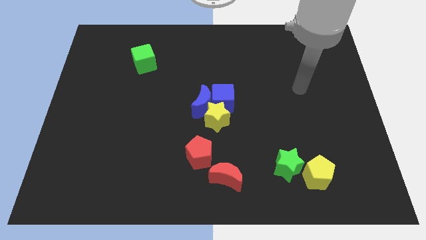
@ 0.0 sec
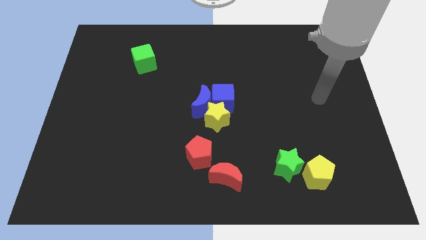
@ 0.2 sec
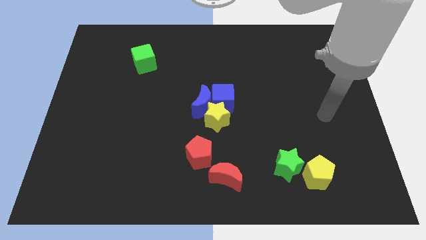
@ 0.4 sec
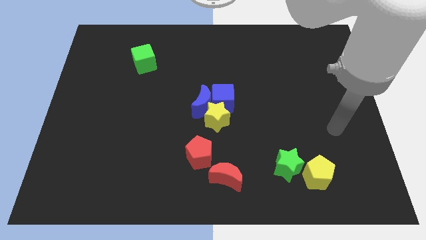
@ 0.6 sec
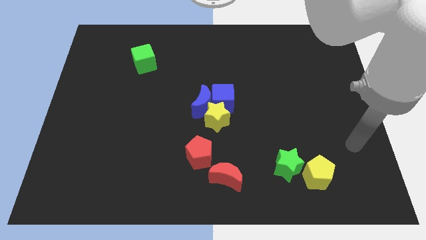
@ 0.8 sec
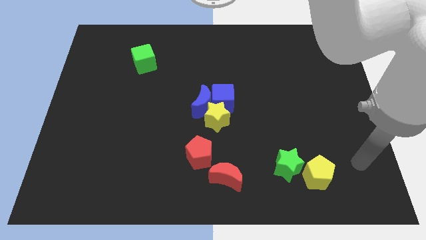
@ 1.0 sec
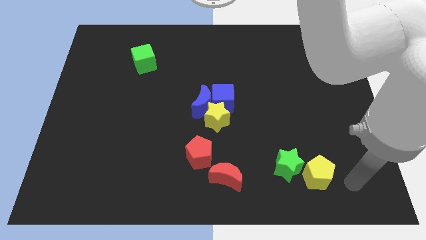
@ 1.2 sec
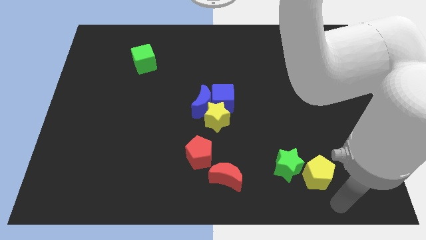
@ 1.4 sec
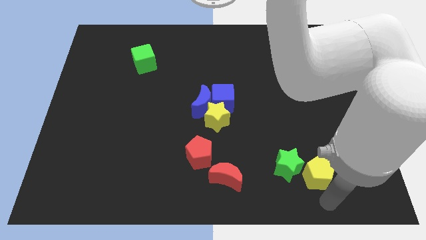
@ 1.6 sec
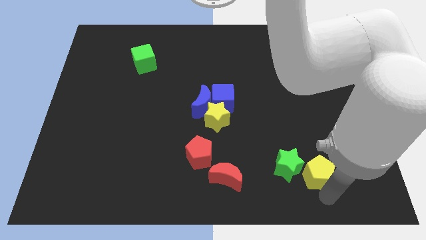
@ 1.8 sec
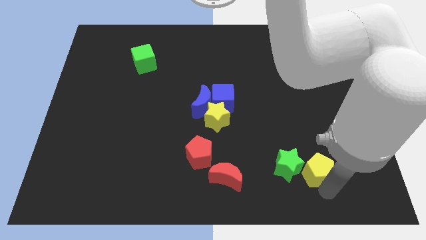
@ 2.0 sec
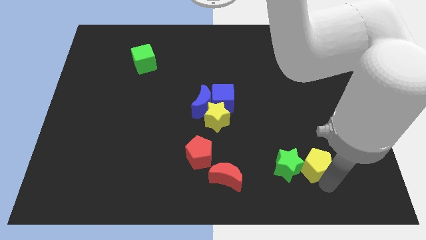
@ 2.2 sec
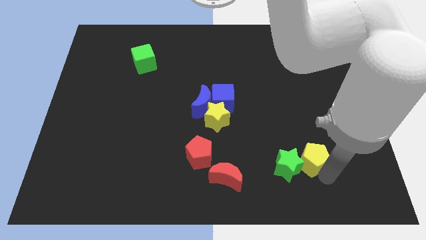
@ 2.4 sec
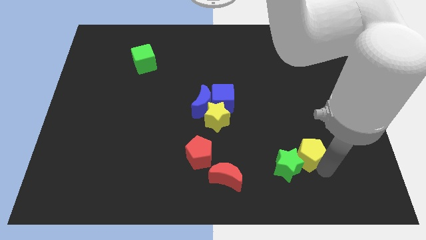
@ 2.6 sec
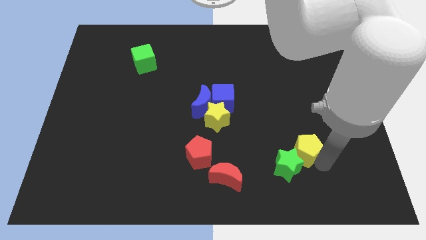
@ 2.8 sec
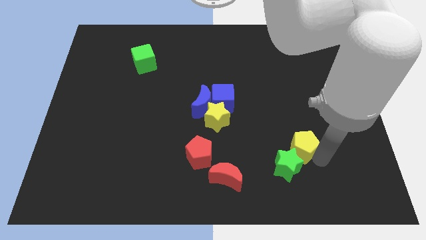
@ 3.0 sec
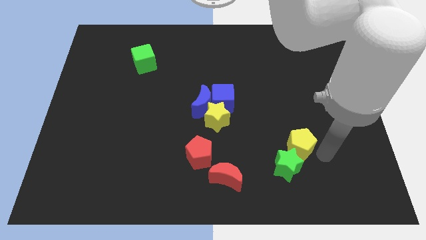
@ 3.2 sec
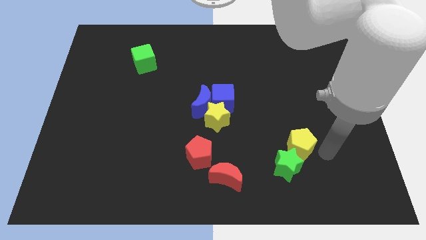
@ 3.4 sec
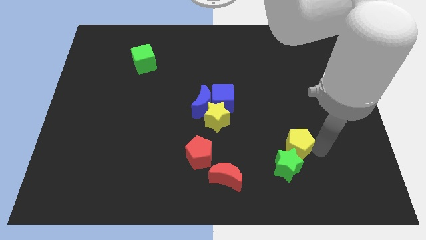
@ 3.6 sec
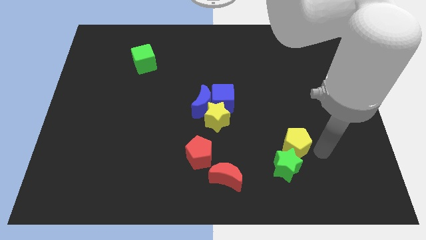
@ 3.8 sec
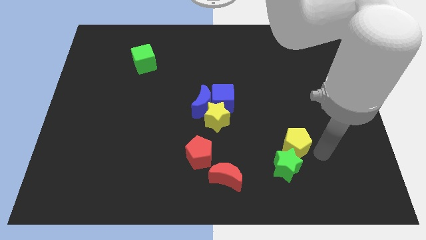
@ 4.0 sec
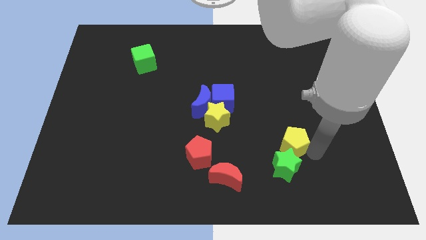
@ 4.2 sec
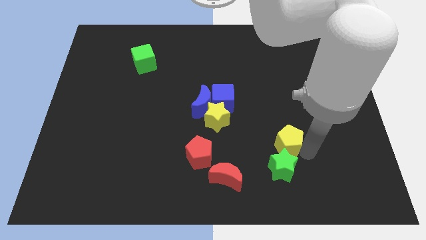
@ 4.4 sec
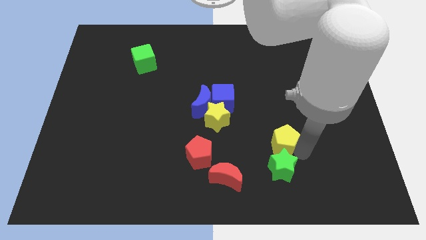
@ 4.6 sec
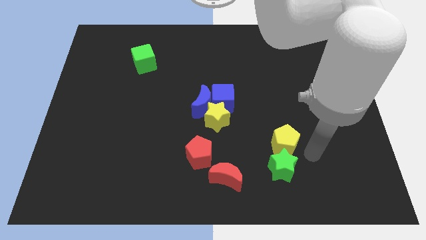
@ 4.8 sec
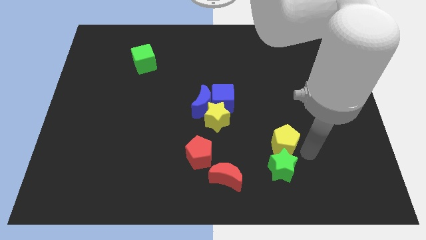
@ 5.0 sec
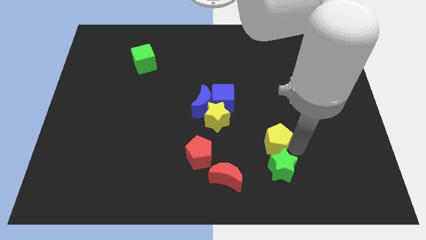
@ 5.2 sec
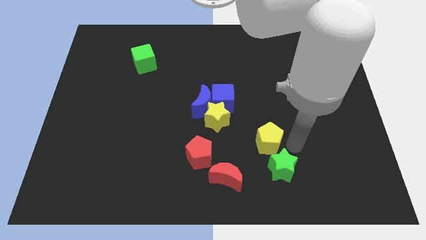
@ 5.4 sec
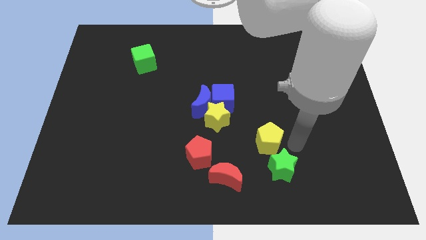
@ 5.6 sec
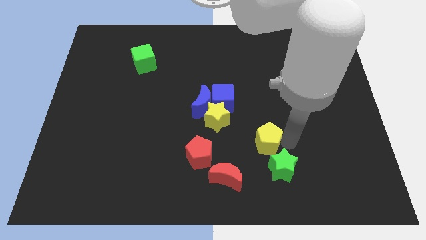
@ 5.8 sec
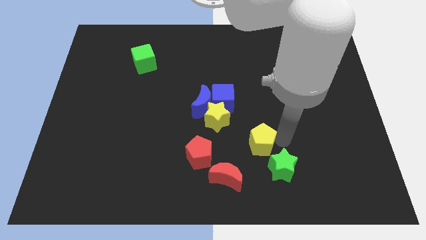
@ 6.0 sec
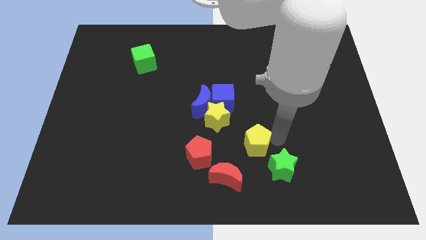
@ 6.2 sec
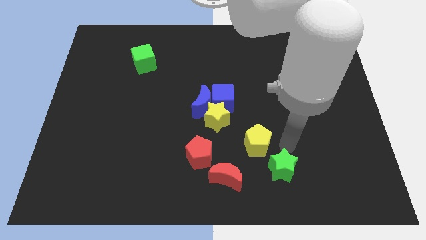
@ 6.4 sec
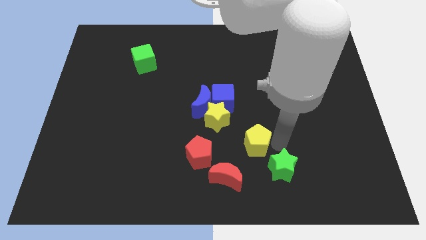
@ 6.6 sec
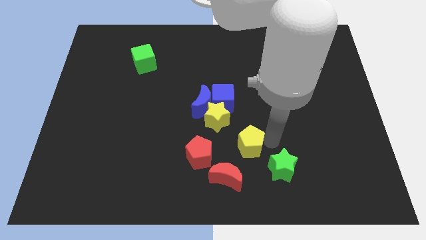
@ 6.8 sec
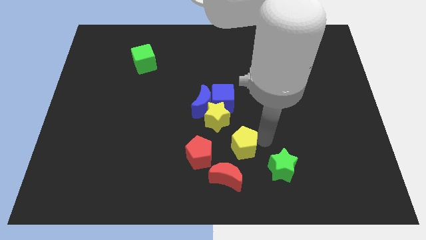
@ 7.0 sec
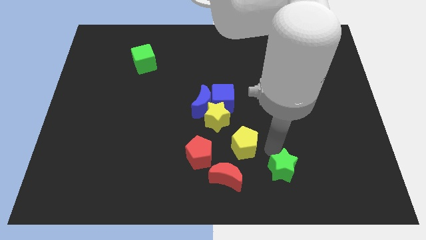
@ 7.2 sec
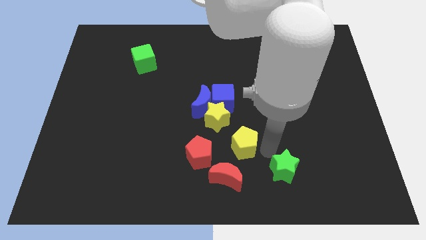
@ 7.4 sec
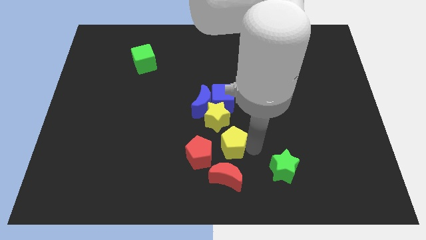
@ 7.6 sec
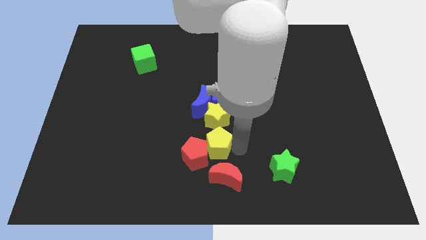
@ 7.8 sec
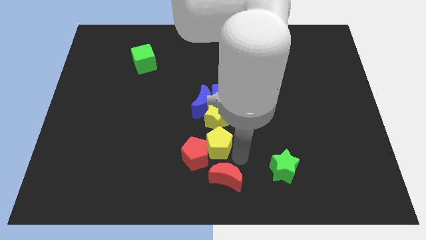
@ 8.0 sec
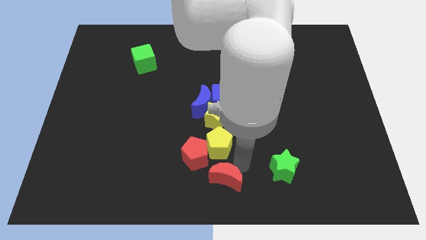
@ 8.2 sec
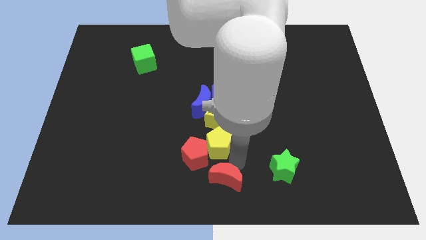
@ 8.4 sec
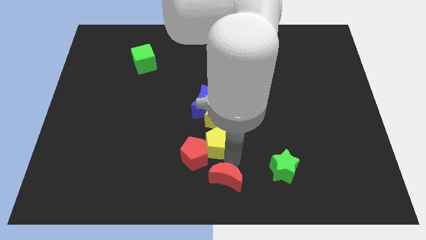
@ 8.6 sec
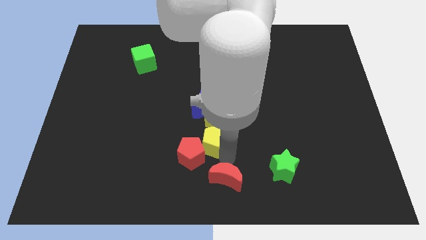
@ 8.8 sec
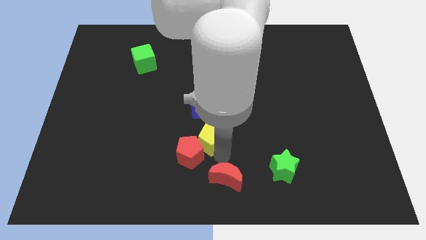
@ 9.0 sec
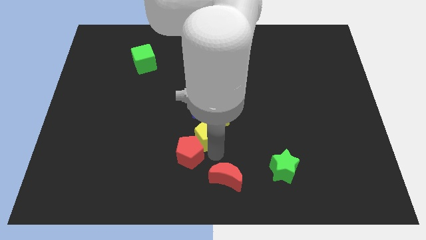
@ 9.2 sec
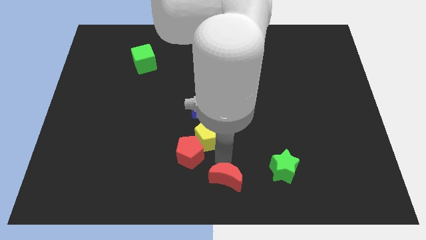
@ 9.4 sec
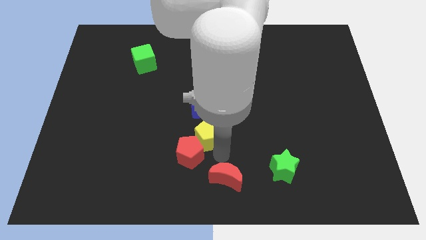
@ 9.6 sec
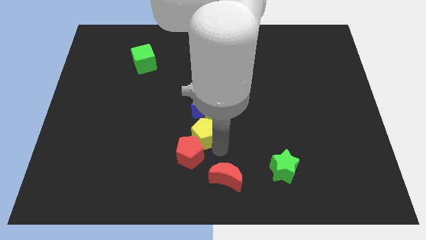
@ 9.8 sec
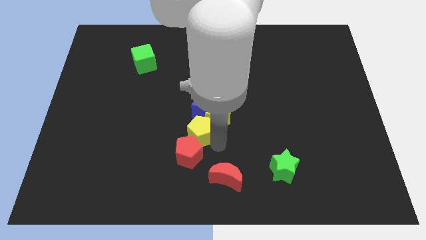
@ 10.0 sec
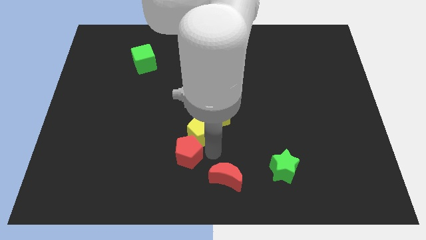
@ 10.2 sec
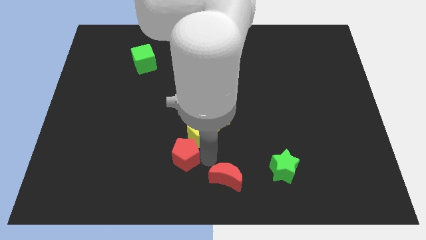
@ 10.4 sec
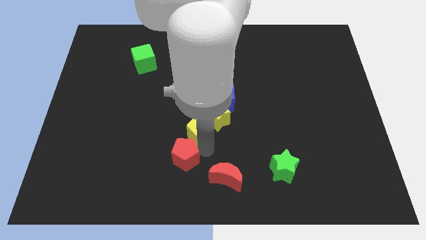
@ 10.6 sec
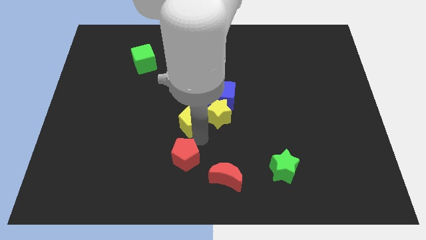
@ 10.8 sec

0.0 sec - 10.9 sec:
slide the yellow pentagon to the blue moon

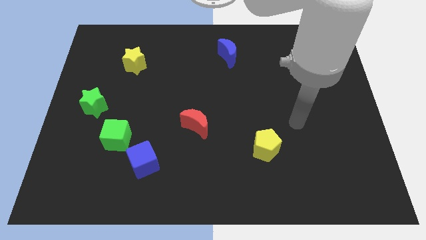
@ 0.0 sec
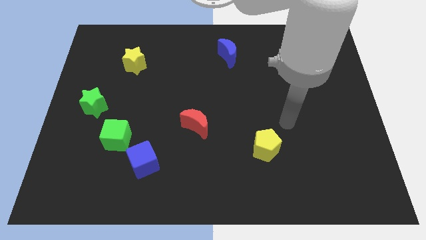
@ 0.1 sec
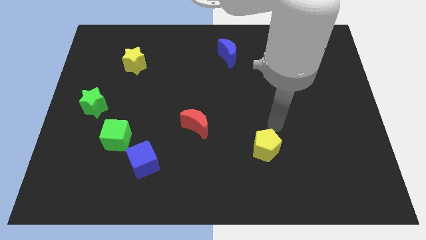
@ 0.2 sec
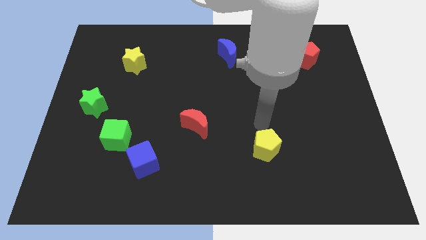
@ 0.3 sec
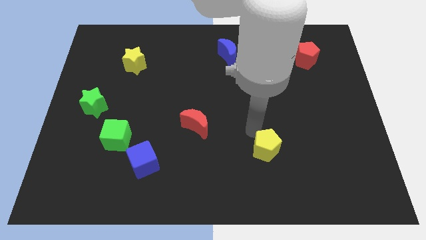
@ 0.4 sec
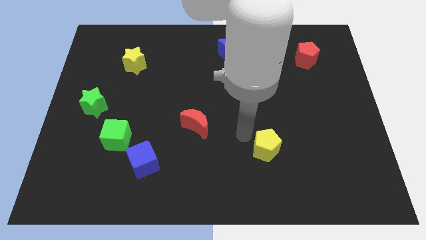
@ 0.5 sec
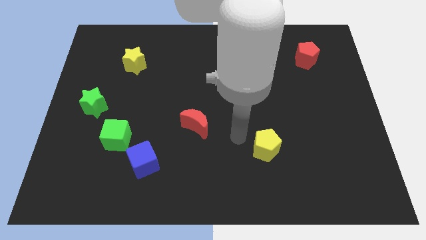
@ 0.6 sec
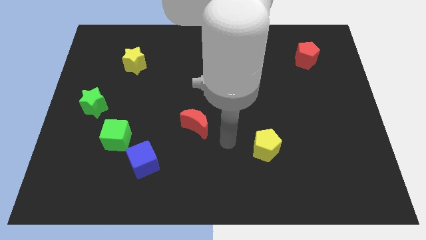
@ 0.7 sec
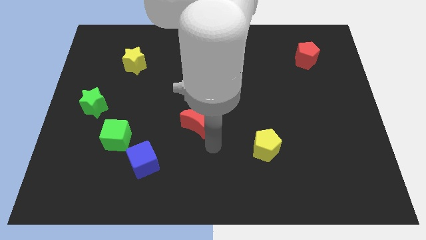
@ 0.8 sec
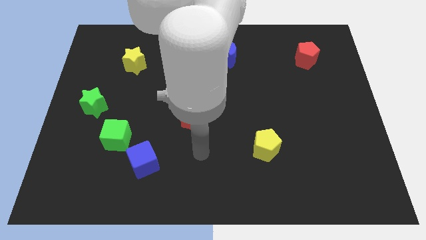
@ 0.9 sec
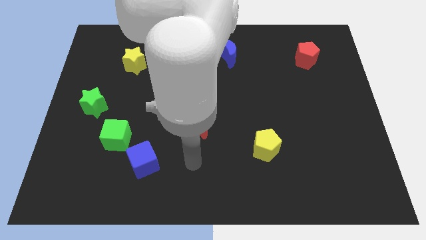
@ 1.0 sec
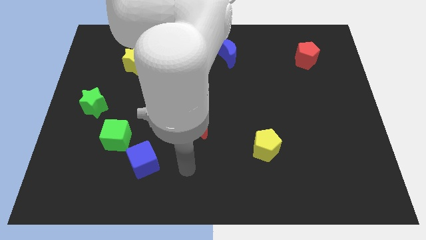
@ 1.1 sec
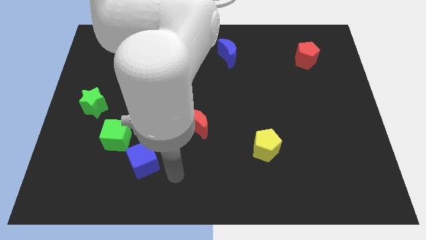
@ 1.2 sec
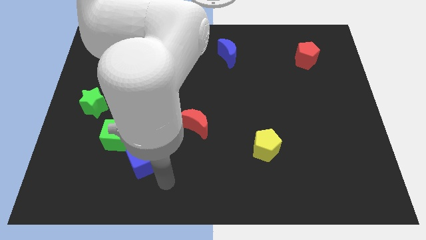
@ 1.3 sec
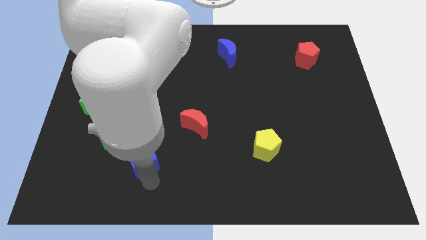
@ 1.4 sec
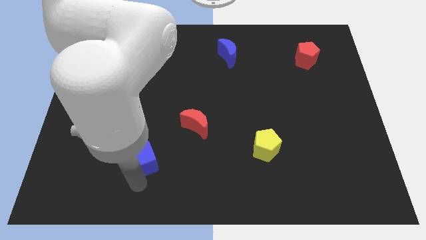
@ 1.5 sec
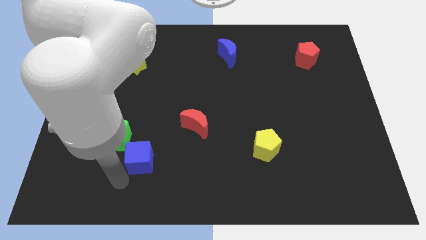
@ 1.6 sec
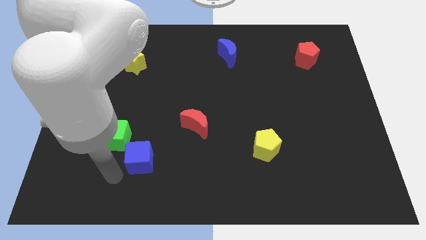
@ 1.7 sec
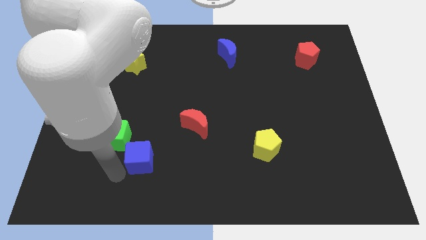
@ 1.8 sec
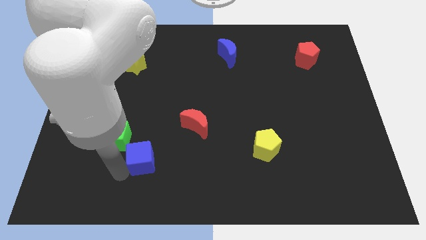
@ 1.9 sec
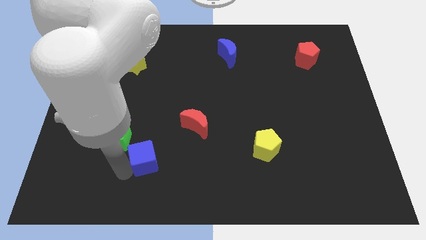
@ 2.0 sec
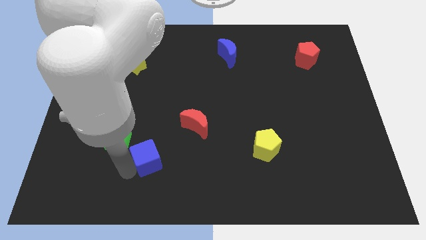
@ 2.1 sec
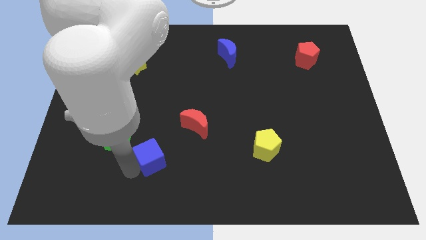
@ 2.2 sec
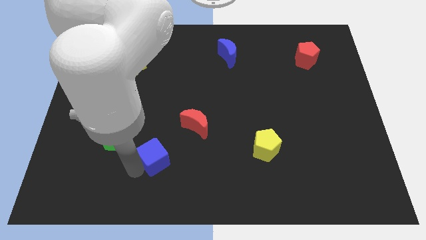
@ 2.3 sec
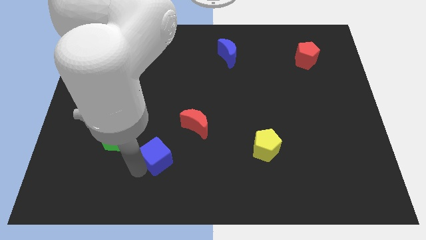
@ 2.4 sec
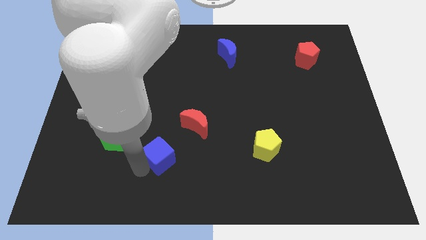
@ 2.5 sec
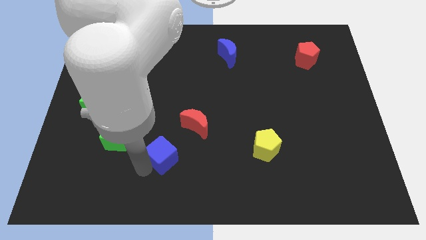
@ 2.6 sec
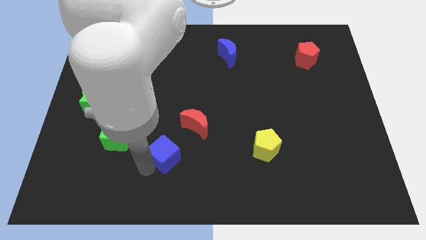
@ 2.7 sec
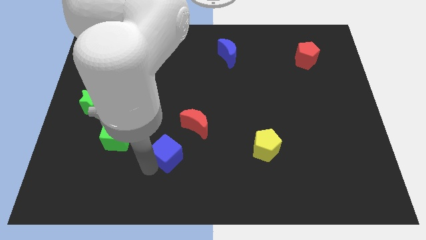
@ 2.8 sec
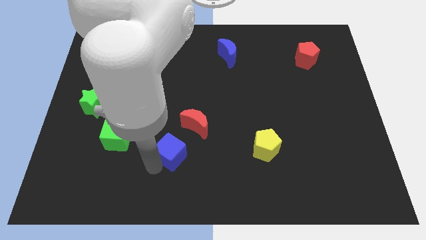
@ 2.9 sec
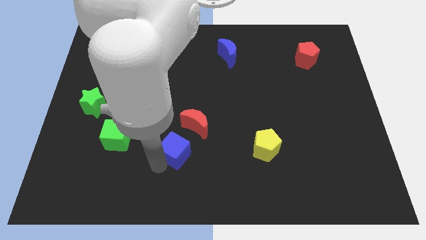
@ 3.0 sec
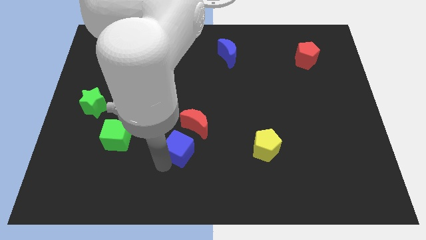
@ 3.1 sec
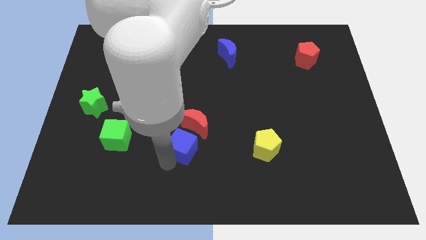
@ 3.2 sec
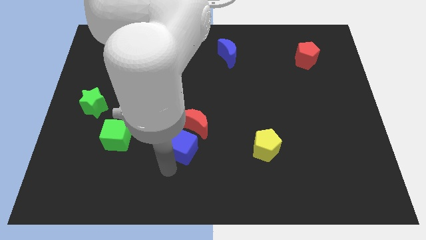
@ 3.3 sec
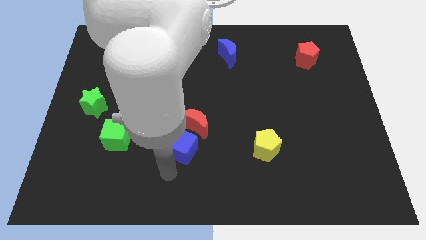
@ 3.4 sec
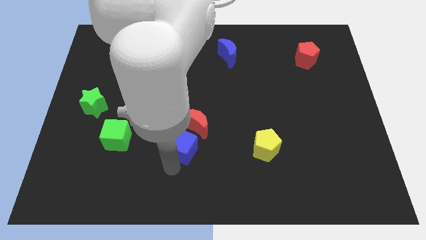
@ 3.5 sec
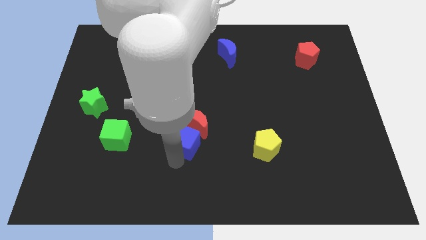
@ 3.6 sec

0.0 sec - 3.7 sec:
put the blue cube towards the red moon
